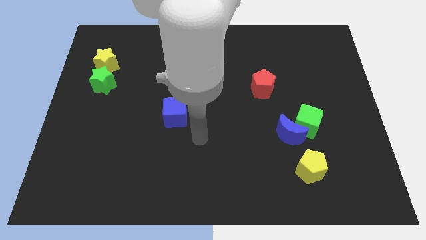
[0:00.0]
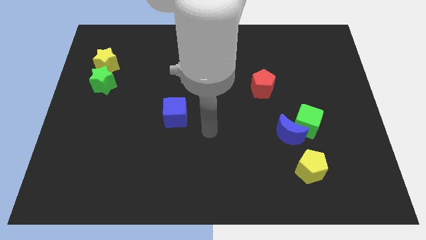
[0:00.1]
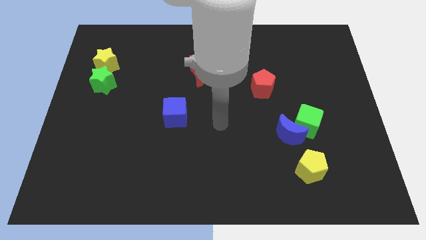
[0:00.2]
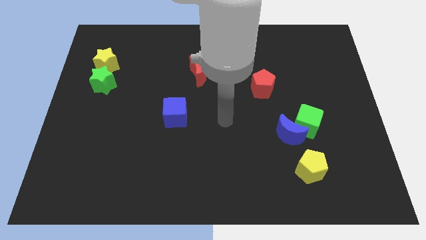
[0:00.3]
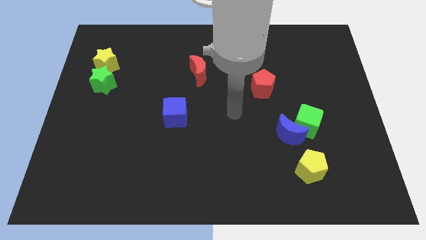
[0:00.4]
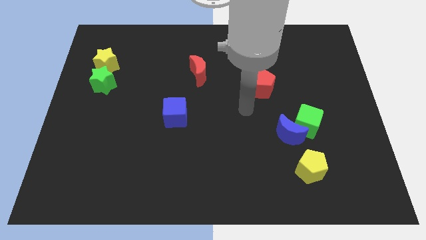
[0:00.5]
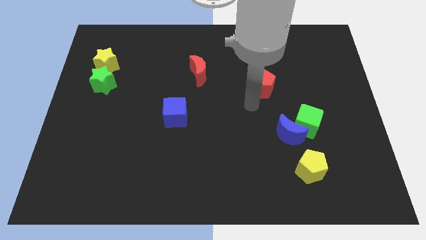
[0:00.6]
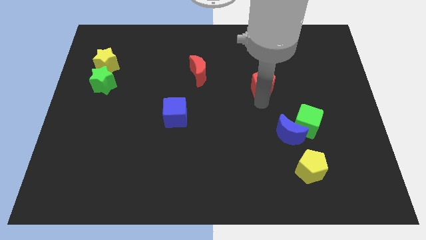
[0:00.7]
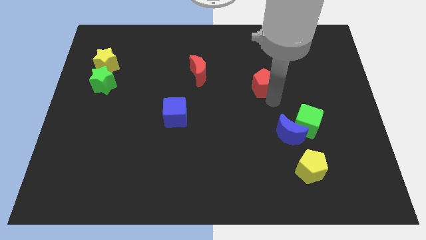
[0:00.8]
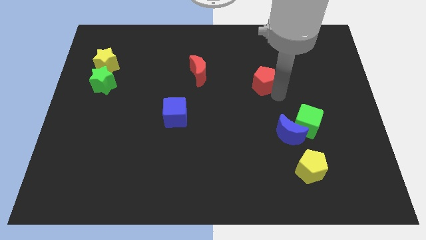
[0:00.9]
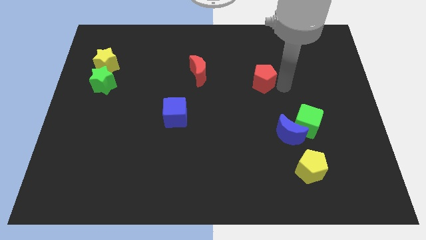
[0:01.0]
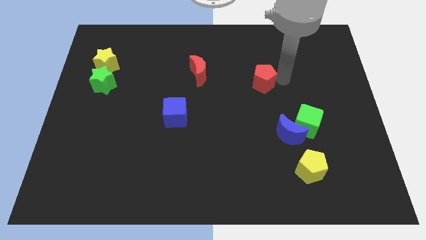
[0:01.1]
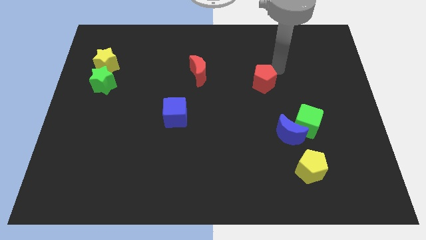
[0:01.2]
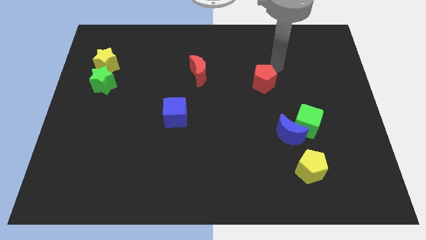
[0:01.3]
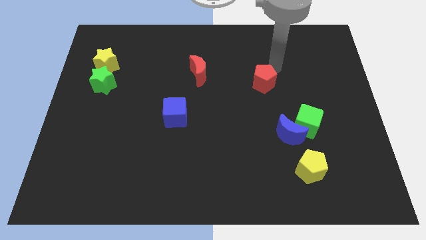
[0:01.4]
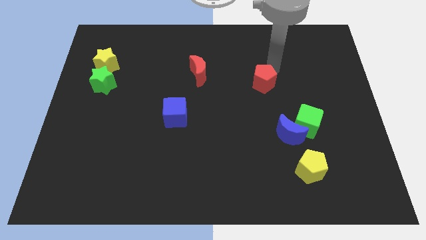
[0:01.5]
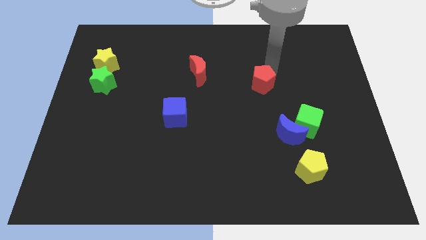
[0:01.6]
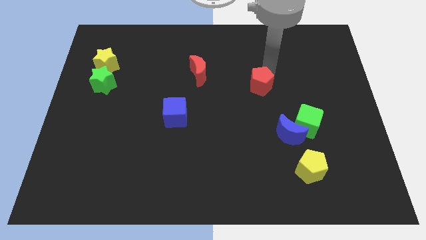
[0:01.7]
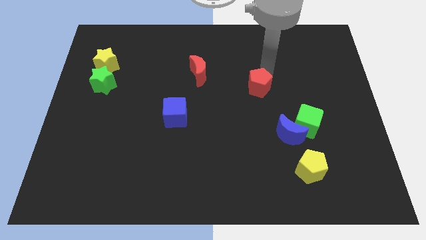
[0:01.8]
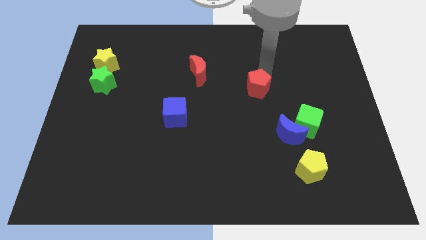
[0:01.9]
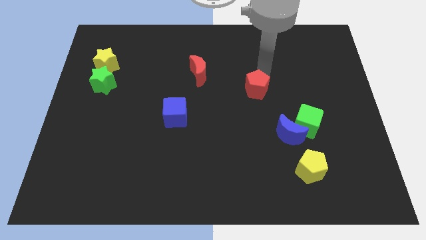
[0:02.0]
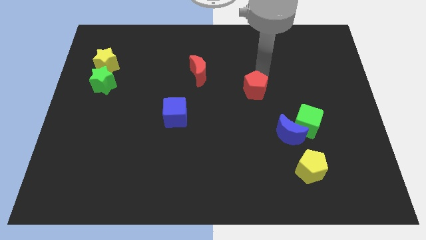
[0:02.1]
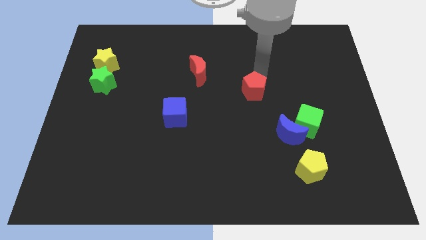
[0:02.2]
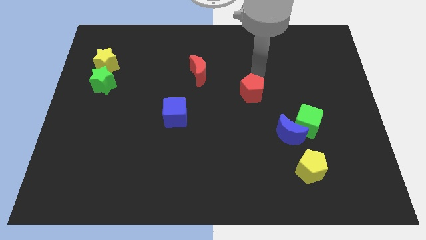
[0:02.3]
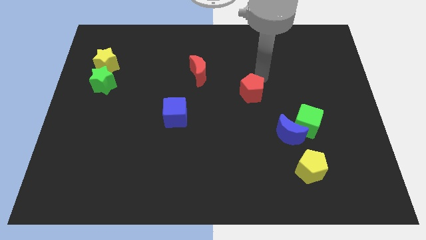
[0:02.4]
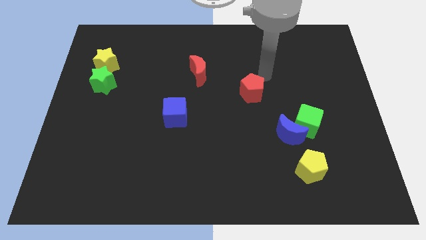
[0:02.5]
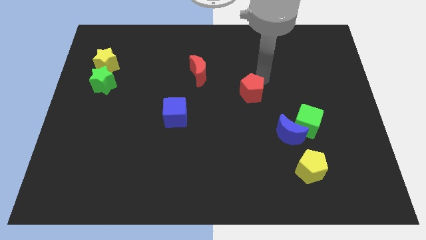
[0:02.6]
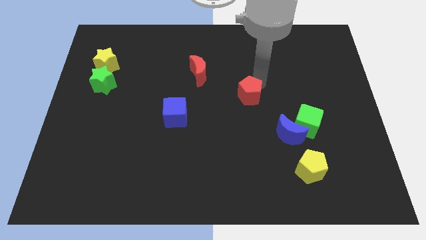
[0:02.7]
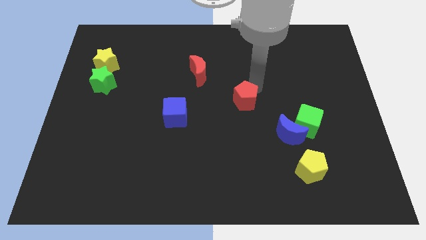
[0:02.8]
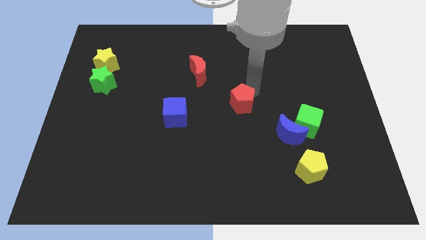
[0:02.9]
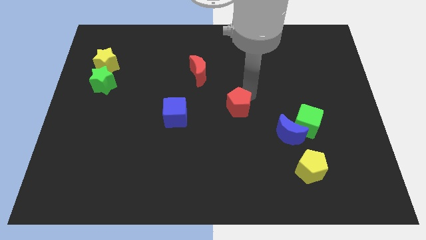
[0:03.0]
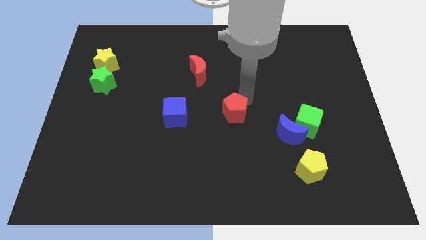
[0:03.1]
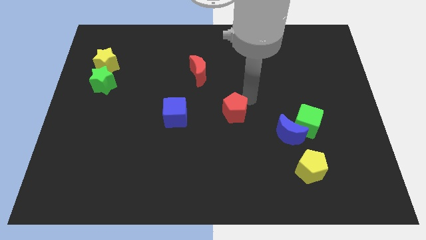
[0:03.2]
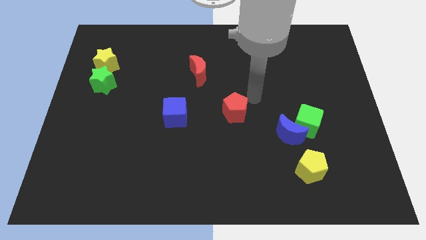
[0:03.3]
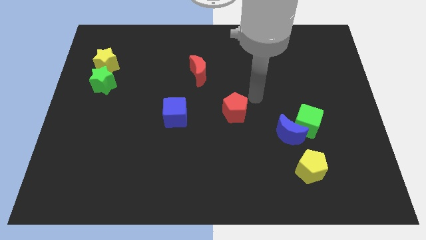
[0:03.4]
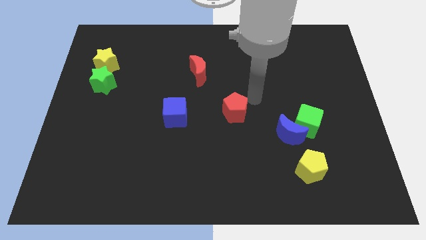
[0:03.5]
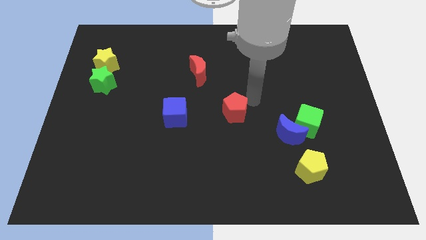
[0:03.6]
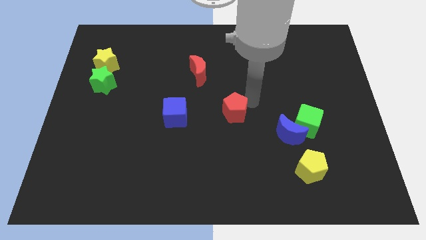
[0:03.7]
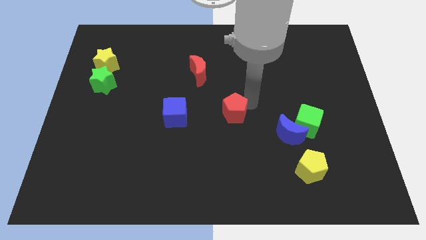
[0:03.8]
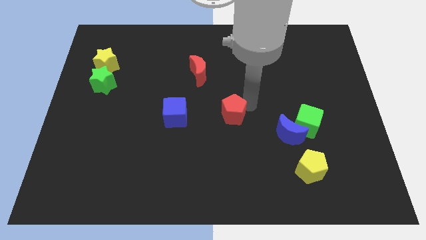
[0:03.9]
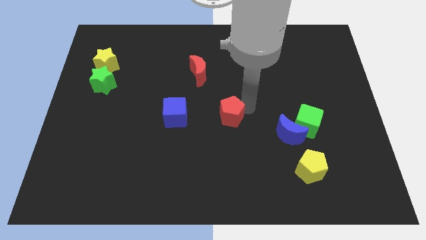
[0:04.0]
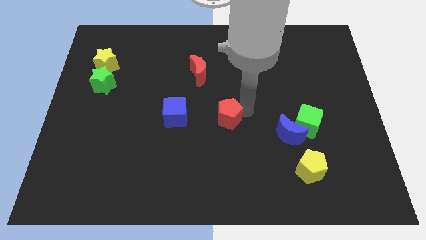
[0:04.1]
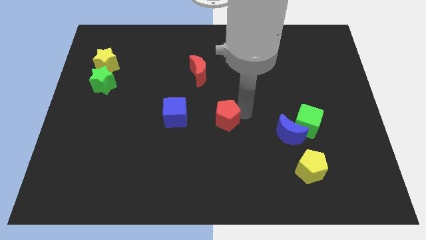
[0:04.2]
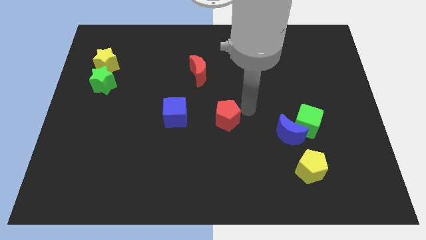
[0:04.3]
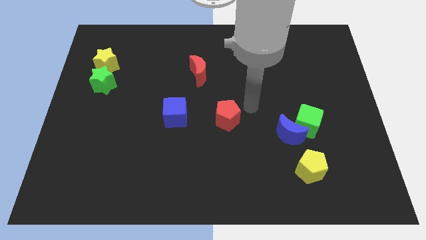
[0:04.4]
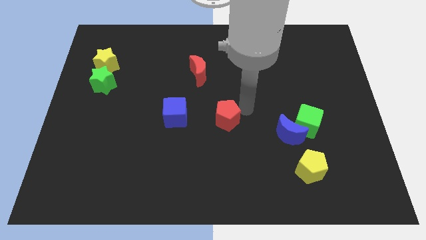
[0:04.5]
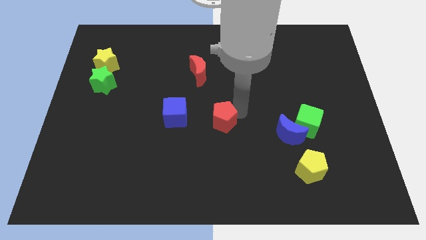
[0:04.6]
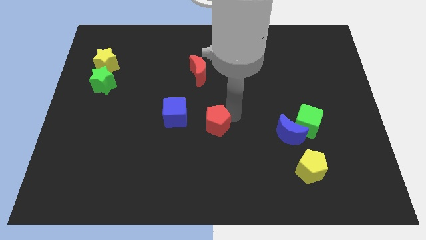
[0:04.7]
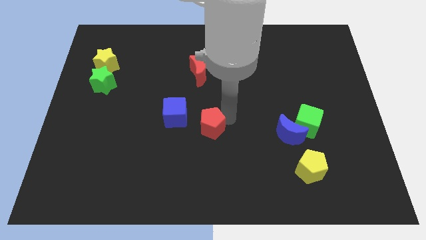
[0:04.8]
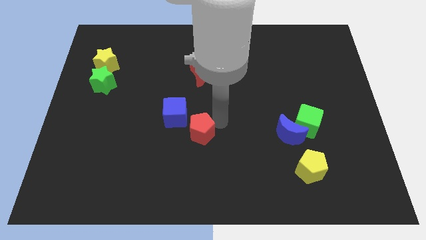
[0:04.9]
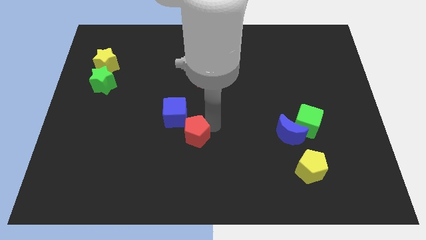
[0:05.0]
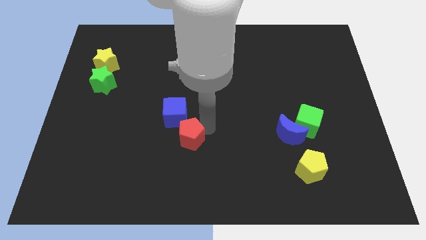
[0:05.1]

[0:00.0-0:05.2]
push the red pentagon below the blue cube

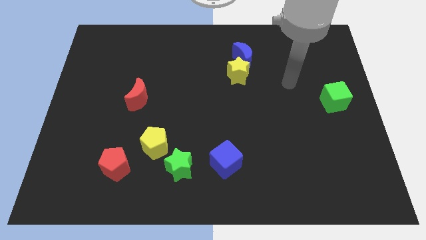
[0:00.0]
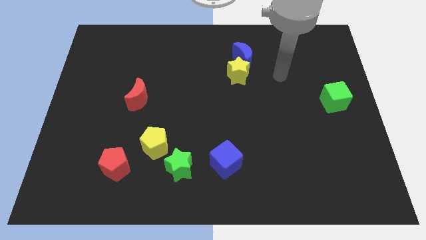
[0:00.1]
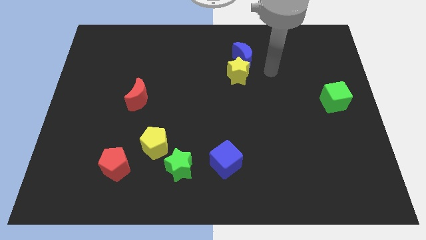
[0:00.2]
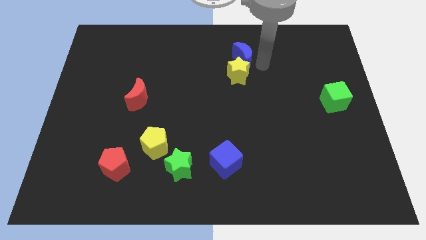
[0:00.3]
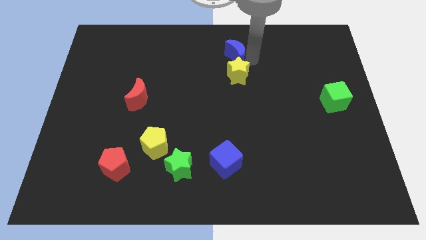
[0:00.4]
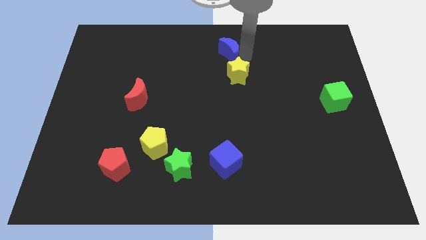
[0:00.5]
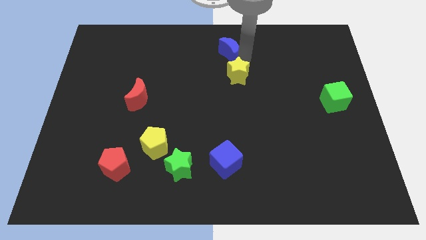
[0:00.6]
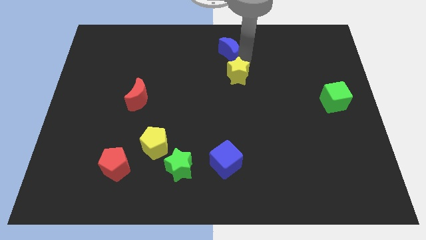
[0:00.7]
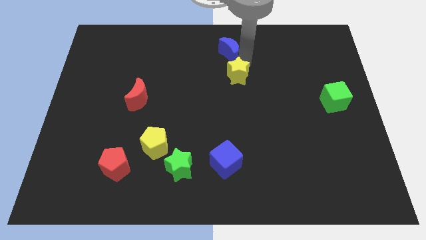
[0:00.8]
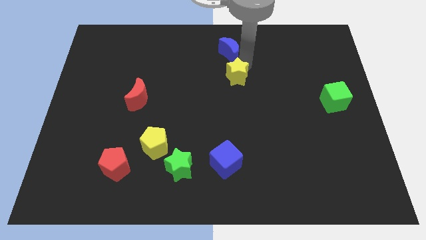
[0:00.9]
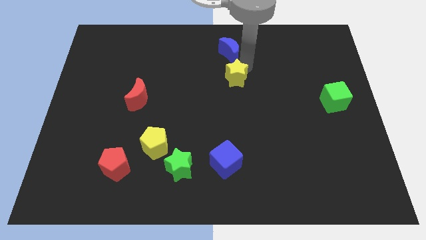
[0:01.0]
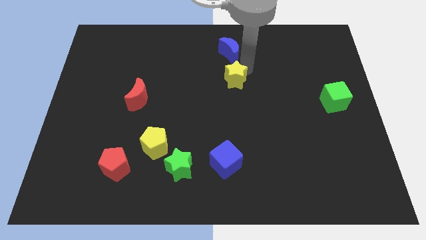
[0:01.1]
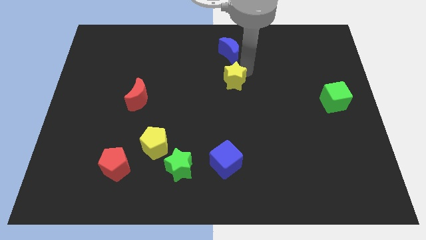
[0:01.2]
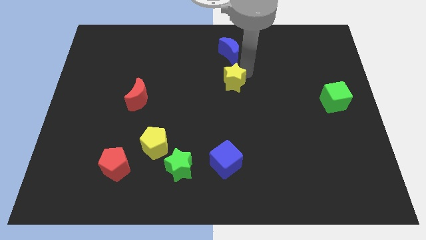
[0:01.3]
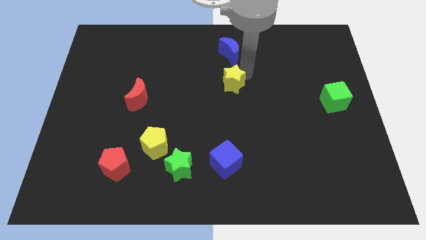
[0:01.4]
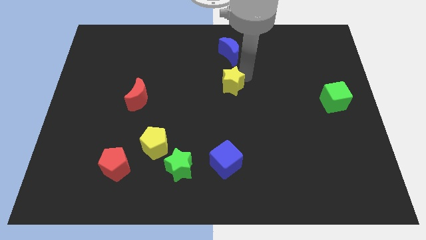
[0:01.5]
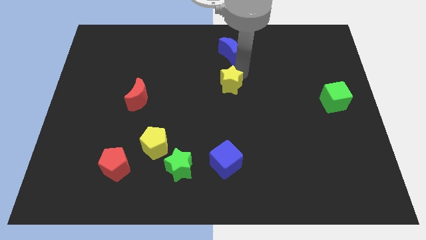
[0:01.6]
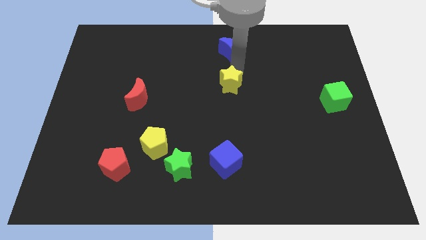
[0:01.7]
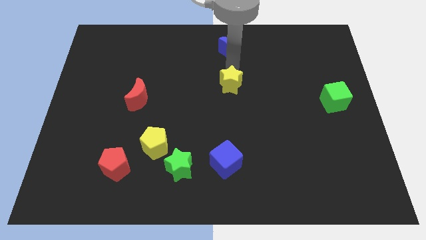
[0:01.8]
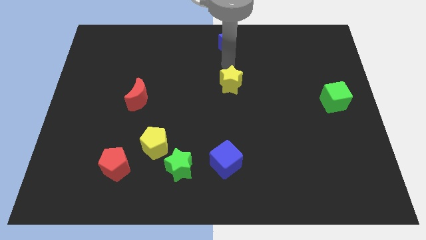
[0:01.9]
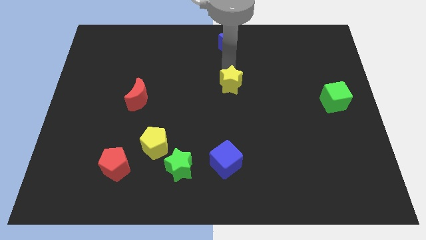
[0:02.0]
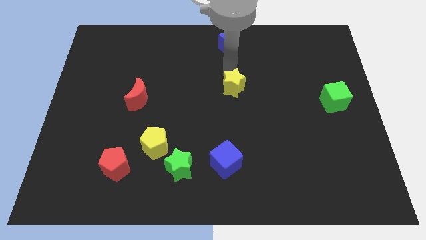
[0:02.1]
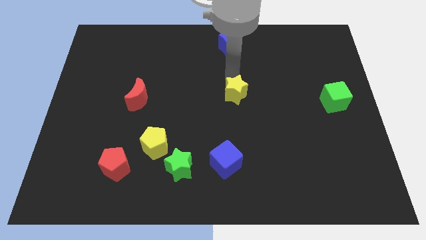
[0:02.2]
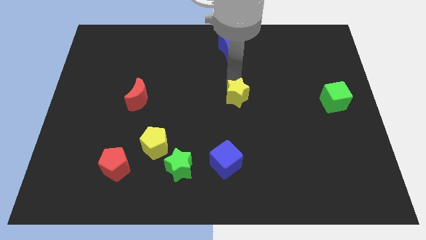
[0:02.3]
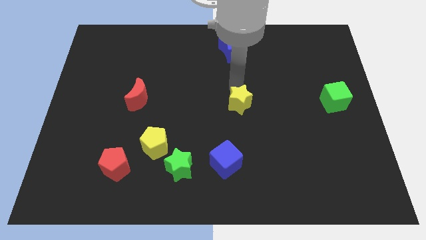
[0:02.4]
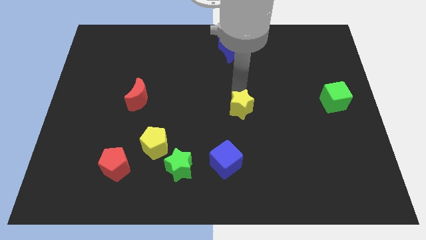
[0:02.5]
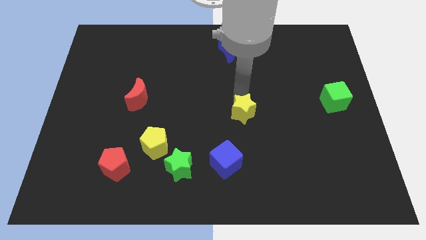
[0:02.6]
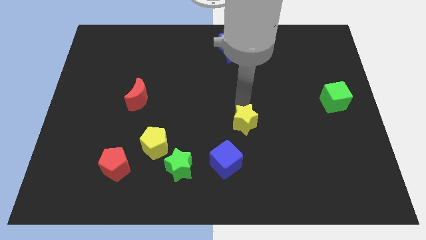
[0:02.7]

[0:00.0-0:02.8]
move the yellow star to the top right of the blue cube
